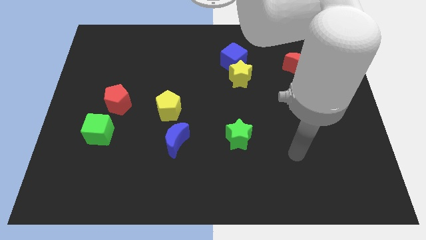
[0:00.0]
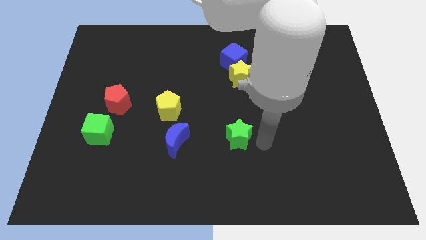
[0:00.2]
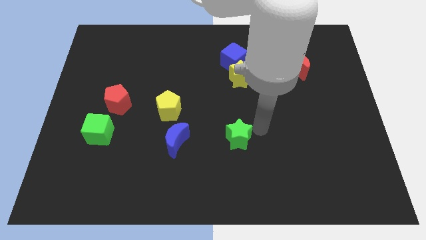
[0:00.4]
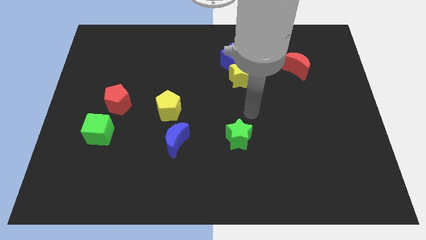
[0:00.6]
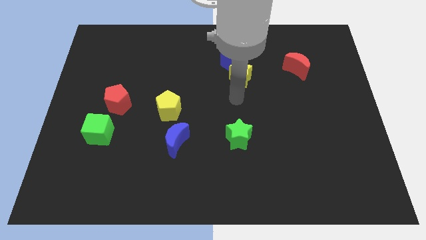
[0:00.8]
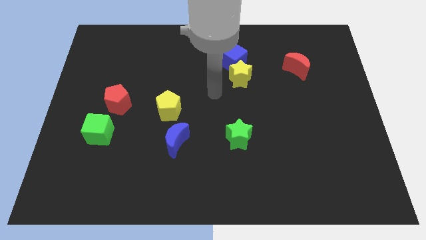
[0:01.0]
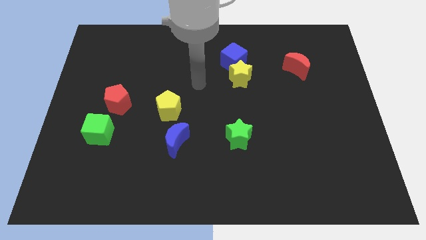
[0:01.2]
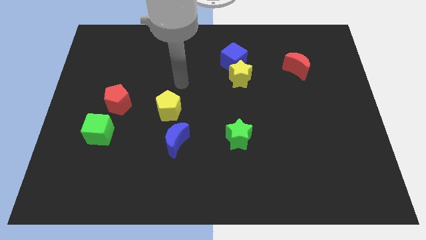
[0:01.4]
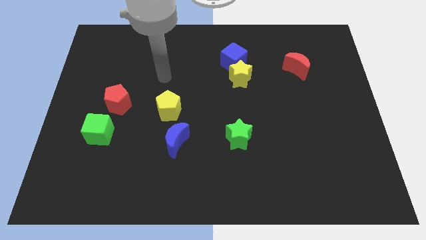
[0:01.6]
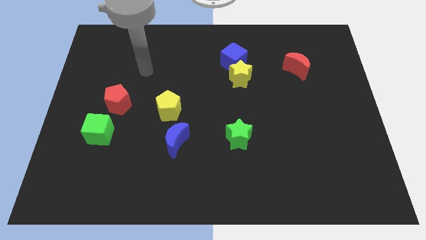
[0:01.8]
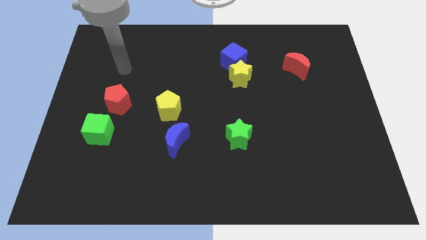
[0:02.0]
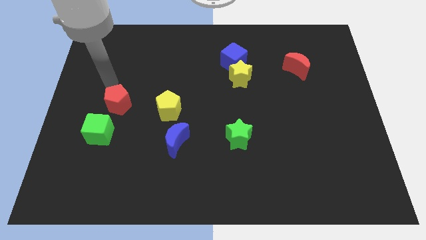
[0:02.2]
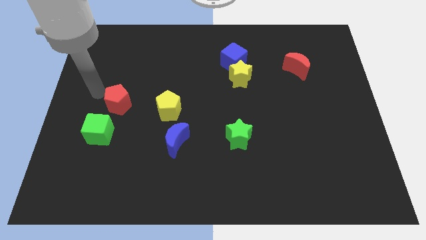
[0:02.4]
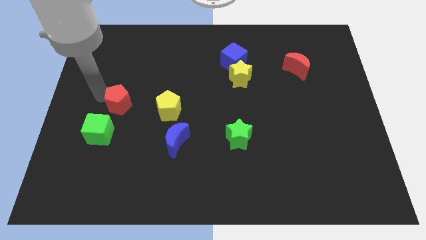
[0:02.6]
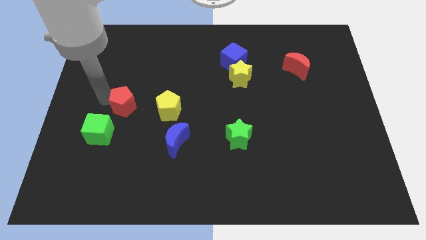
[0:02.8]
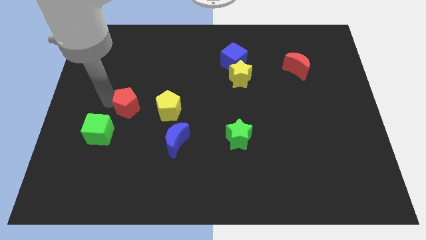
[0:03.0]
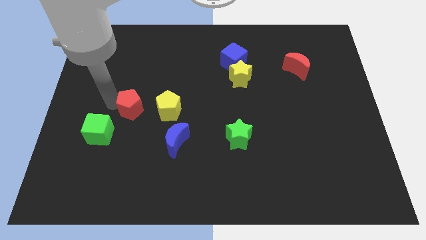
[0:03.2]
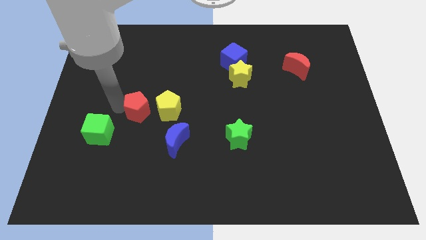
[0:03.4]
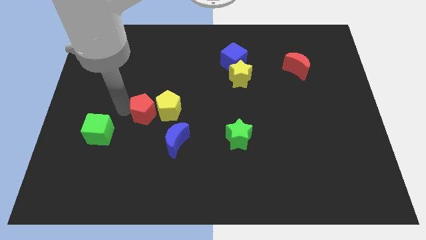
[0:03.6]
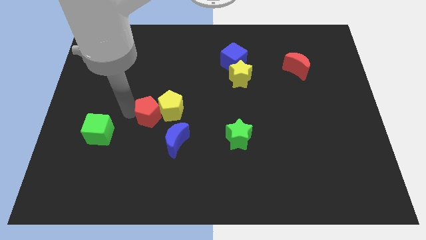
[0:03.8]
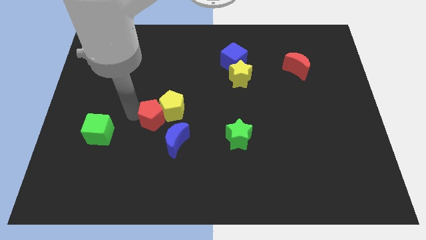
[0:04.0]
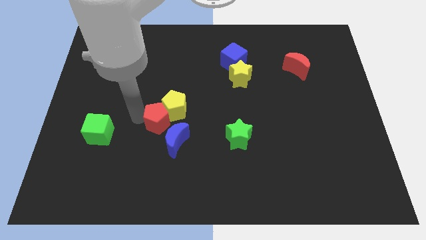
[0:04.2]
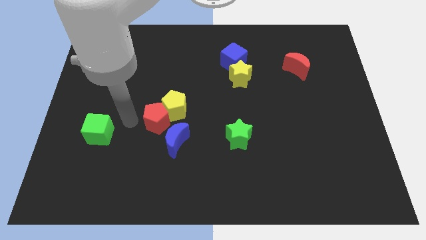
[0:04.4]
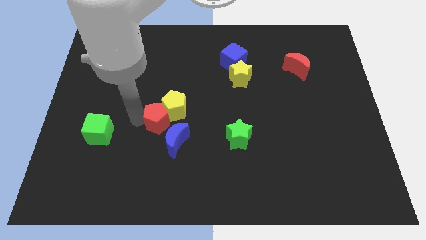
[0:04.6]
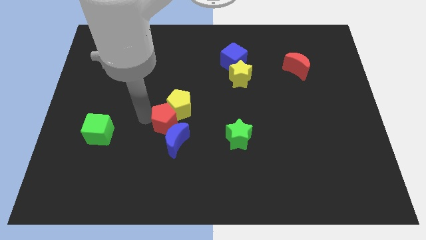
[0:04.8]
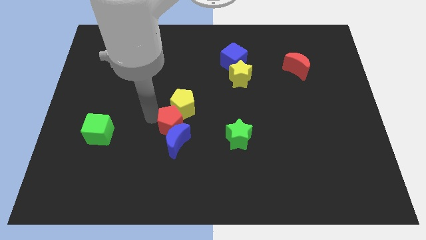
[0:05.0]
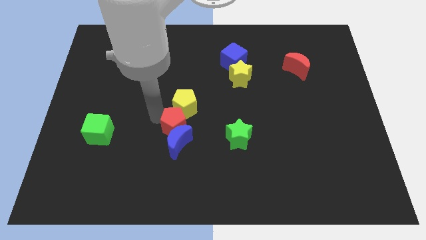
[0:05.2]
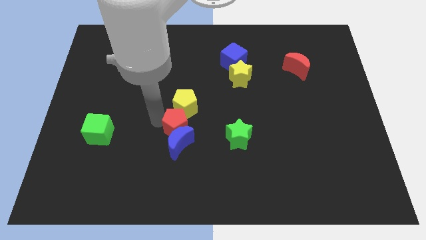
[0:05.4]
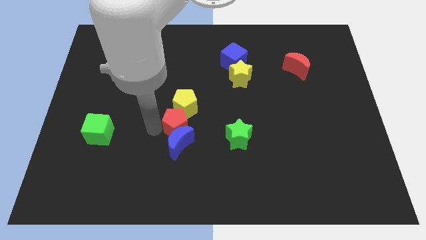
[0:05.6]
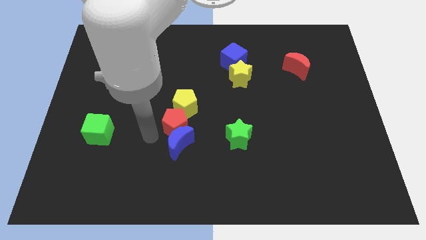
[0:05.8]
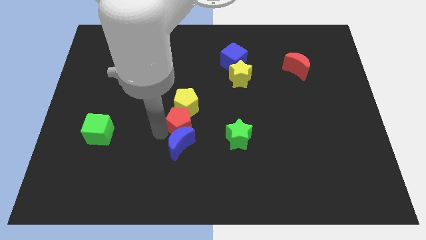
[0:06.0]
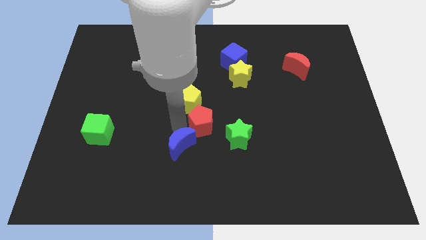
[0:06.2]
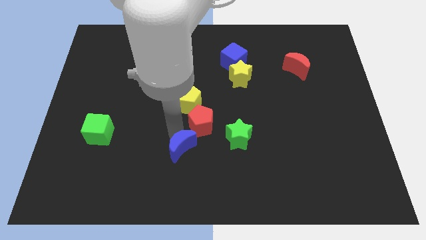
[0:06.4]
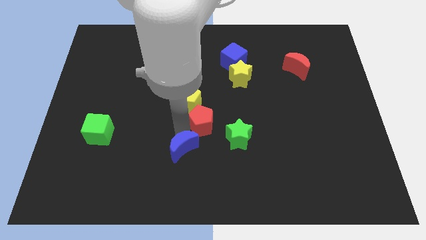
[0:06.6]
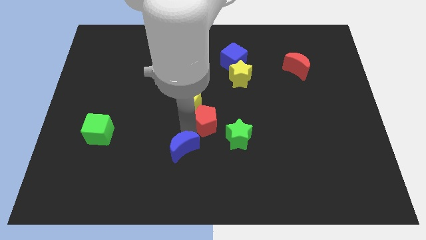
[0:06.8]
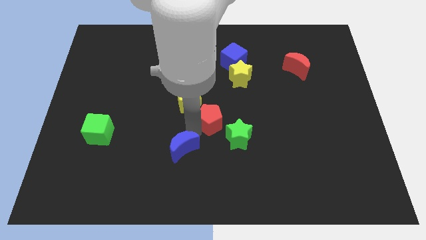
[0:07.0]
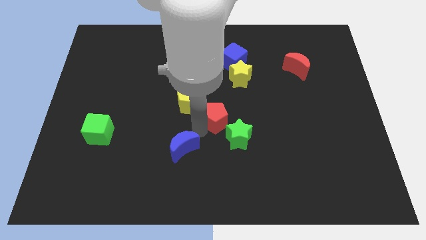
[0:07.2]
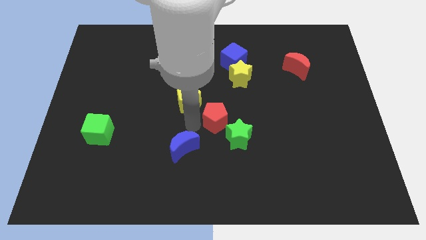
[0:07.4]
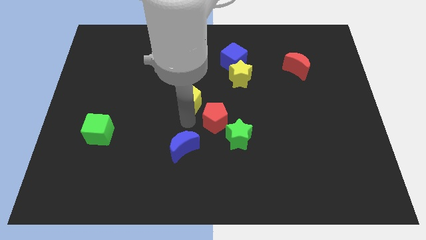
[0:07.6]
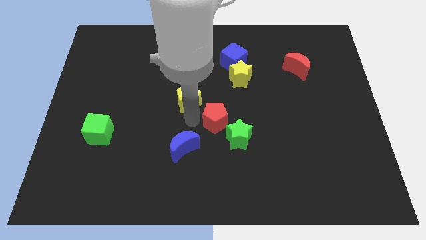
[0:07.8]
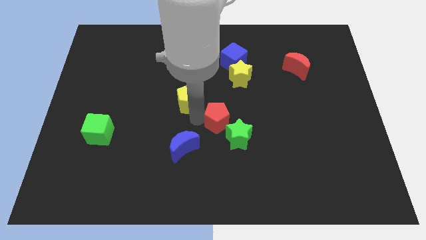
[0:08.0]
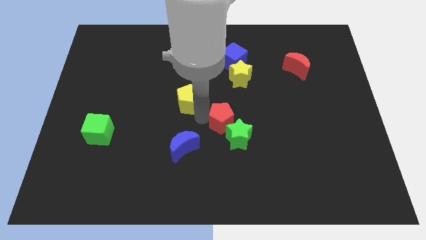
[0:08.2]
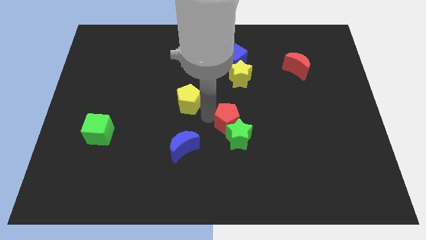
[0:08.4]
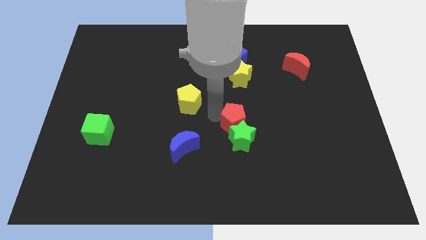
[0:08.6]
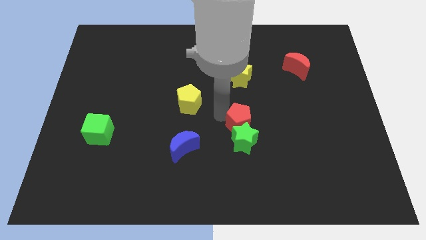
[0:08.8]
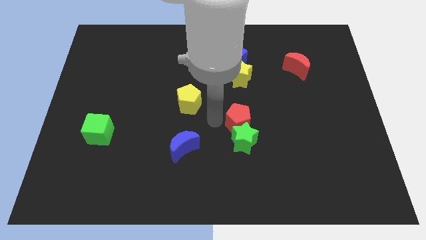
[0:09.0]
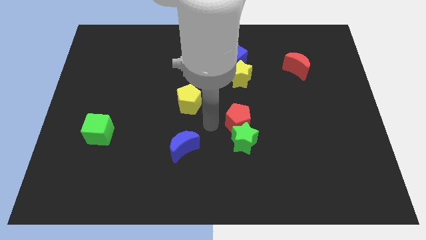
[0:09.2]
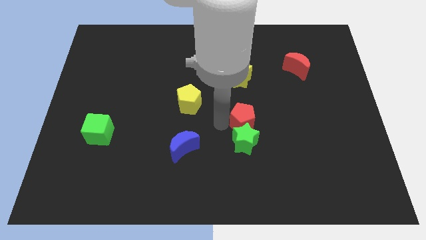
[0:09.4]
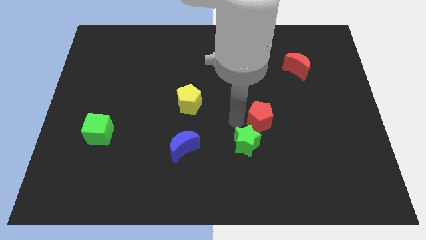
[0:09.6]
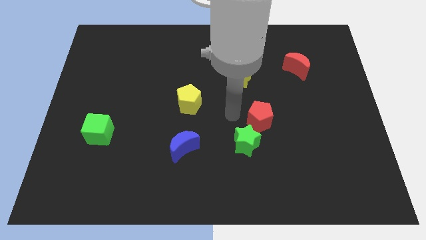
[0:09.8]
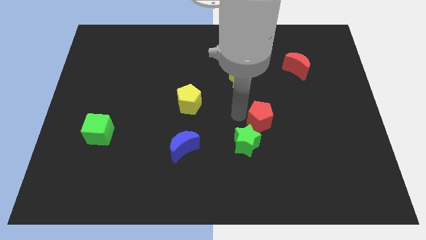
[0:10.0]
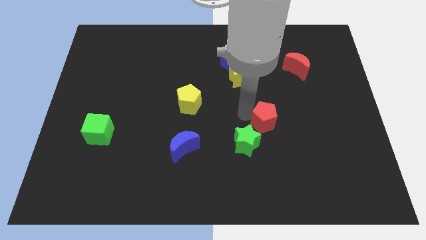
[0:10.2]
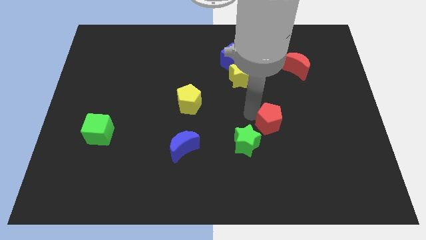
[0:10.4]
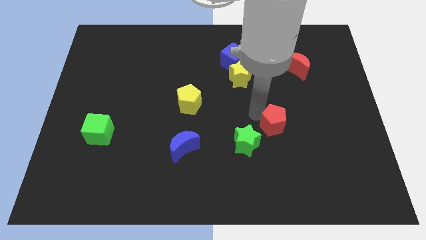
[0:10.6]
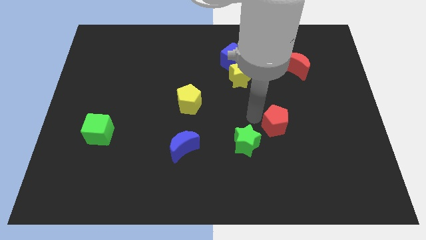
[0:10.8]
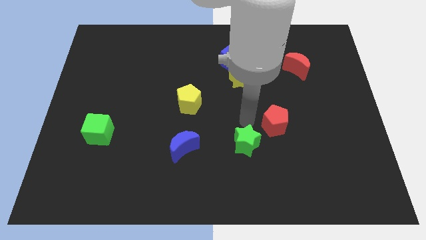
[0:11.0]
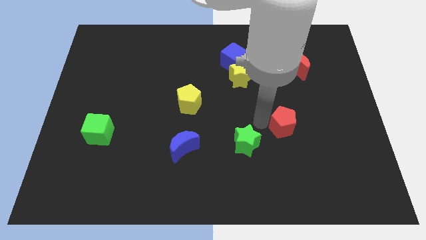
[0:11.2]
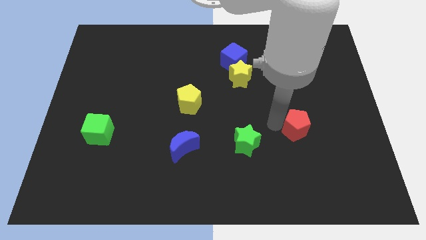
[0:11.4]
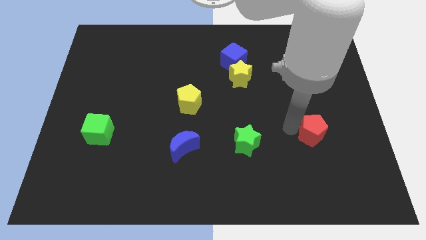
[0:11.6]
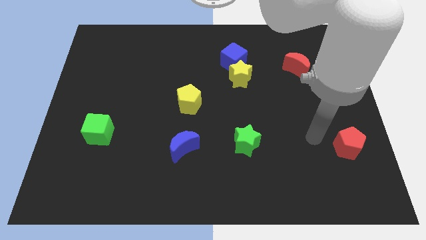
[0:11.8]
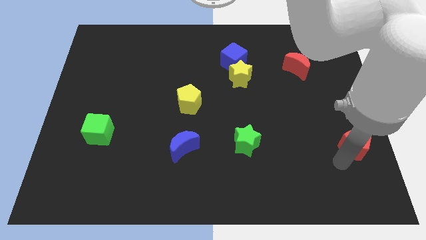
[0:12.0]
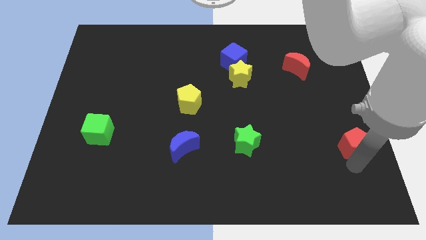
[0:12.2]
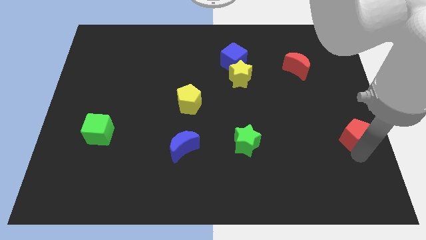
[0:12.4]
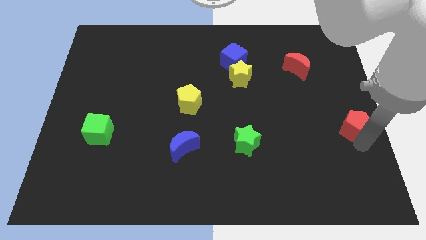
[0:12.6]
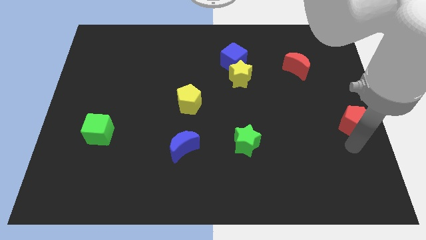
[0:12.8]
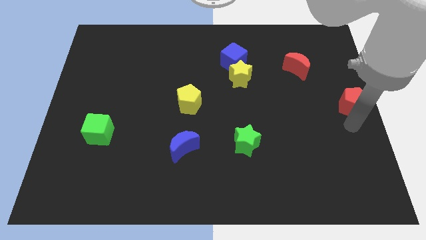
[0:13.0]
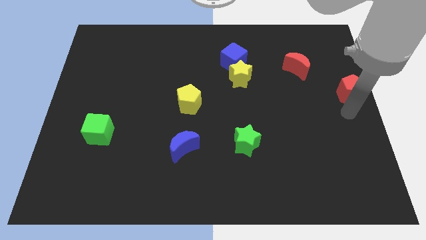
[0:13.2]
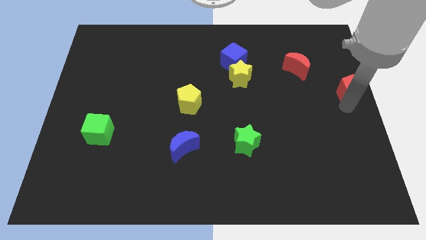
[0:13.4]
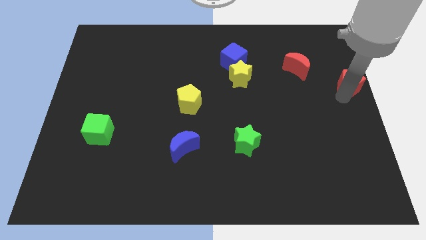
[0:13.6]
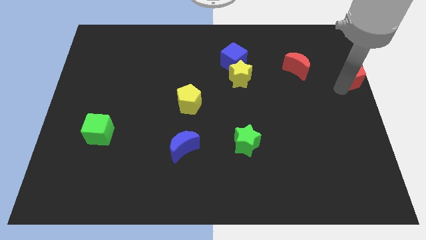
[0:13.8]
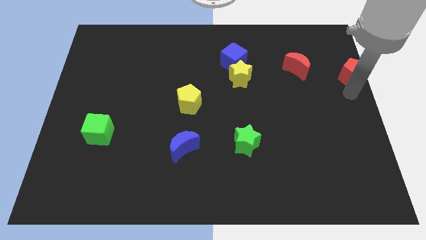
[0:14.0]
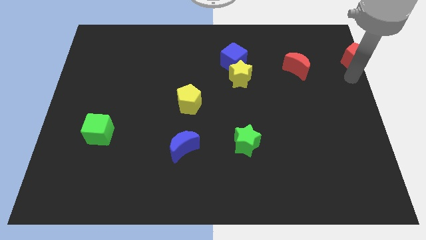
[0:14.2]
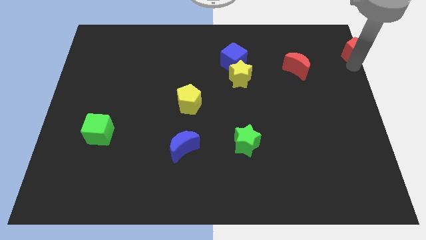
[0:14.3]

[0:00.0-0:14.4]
move the red pentagon to the top right
